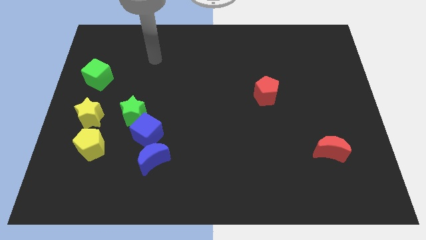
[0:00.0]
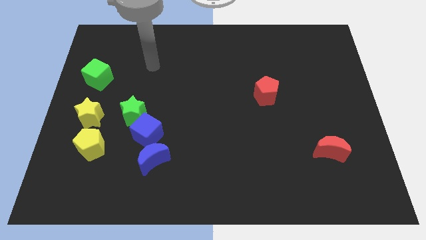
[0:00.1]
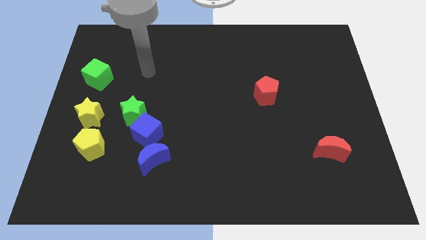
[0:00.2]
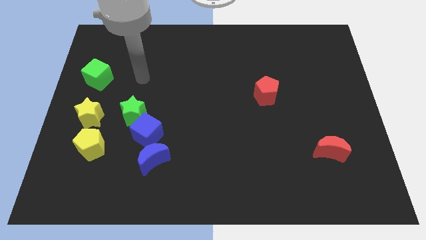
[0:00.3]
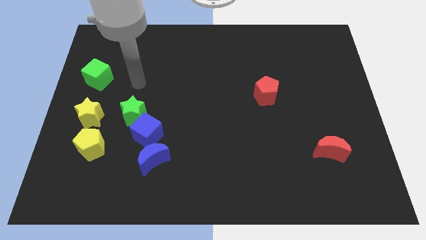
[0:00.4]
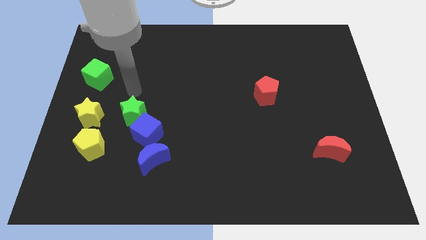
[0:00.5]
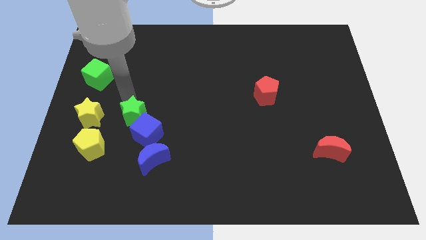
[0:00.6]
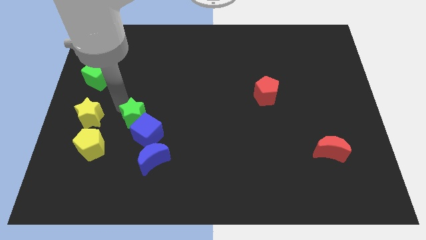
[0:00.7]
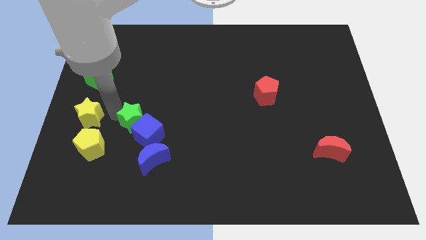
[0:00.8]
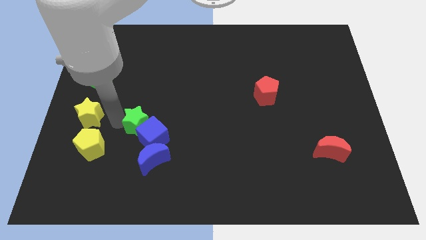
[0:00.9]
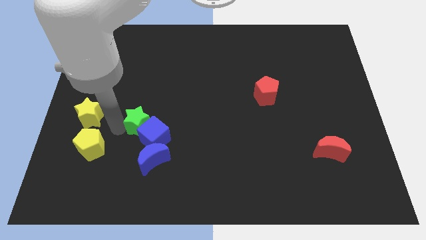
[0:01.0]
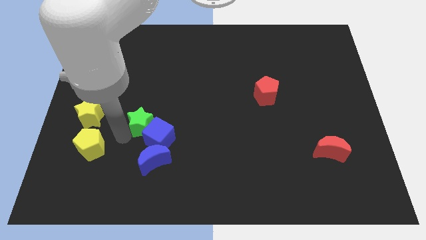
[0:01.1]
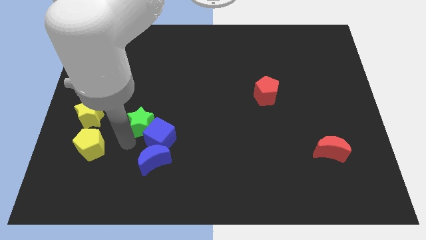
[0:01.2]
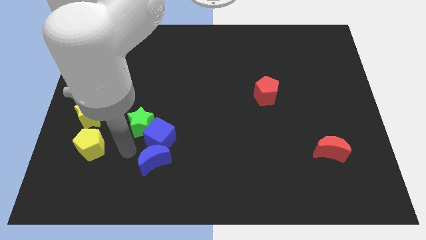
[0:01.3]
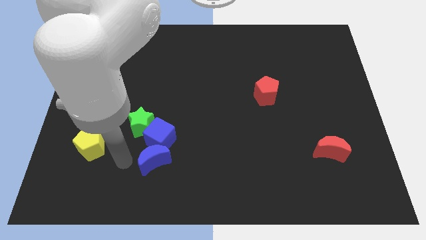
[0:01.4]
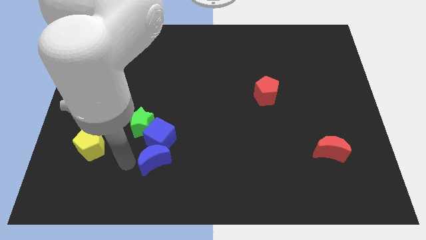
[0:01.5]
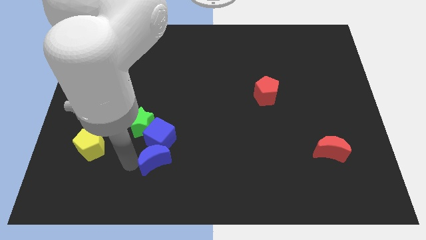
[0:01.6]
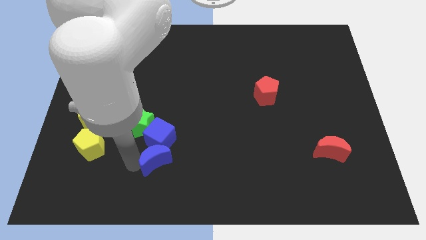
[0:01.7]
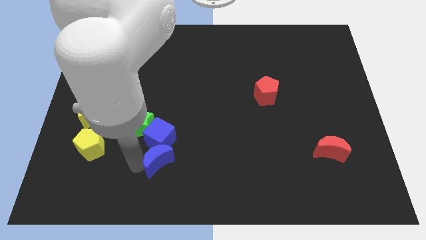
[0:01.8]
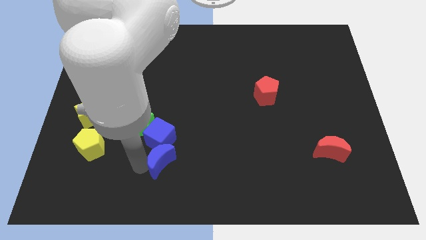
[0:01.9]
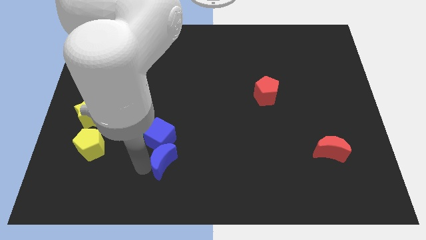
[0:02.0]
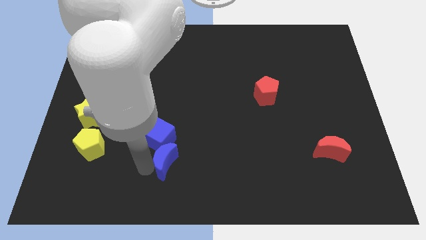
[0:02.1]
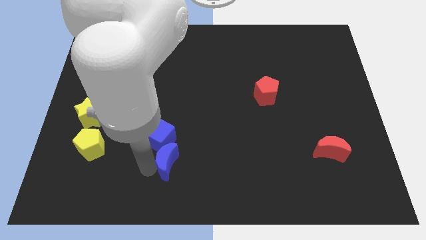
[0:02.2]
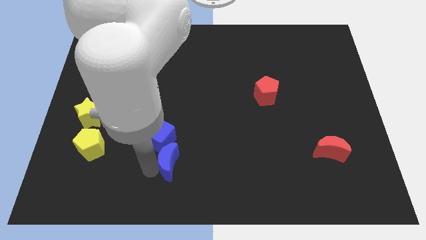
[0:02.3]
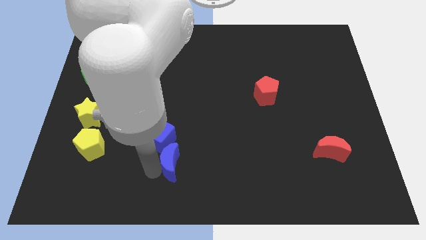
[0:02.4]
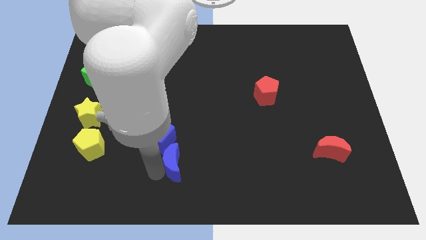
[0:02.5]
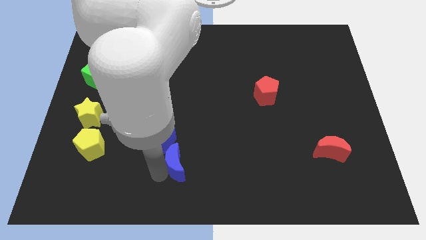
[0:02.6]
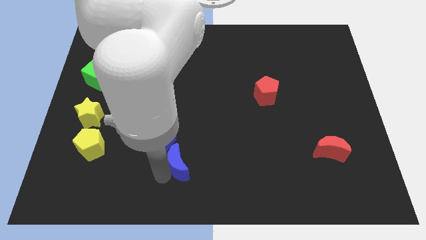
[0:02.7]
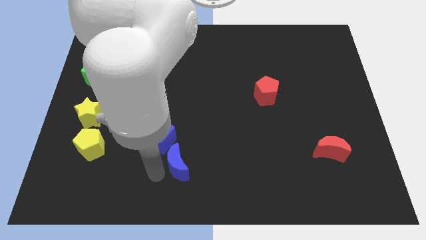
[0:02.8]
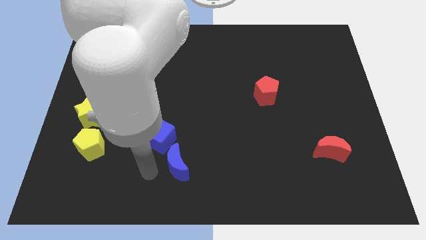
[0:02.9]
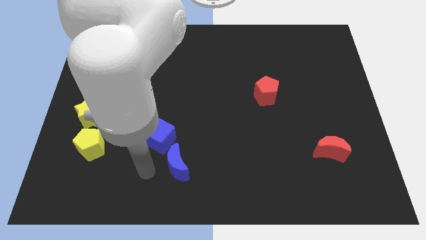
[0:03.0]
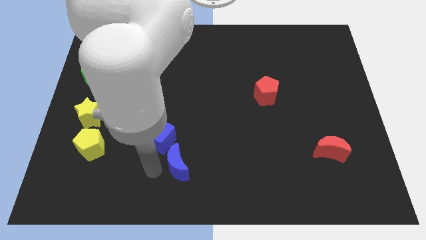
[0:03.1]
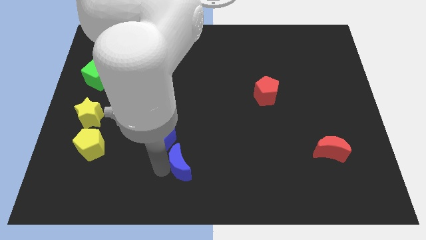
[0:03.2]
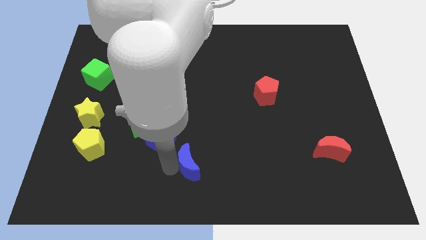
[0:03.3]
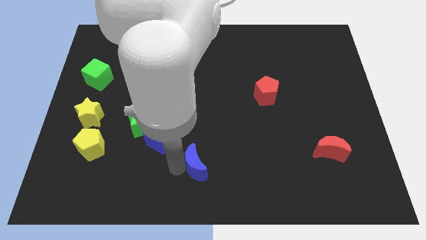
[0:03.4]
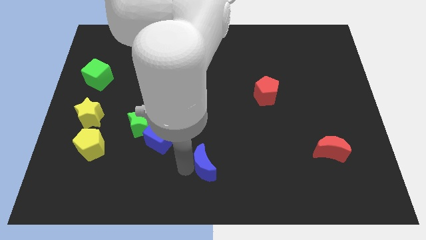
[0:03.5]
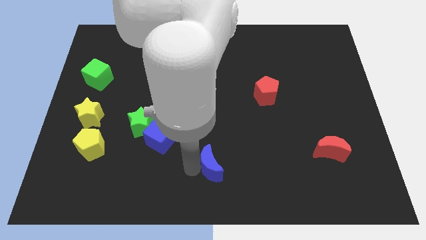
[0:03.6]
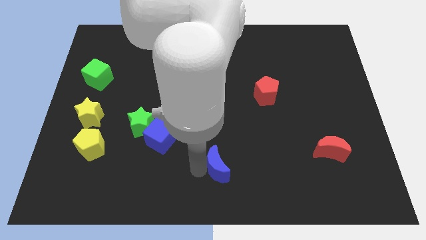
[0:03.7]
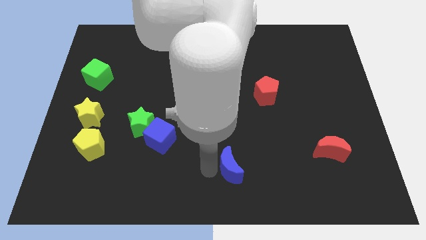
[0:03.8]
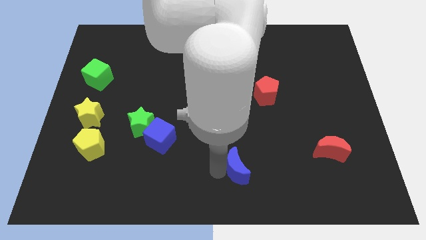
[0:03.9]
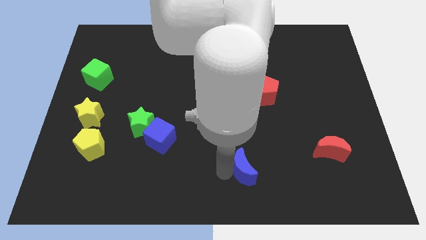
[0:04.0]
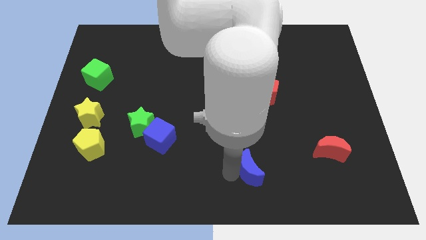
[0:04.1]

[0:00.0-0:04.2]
push the blue moon right

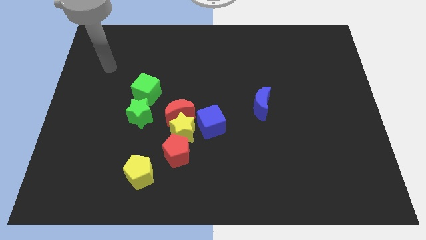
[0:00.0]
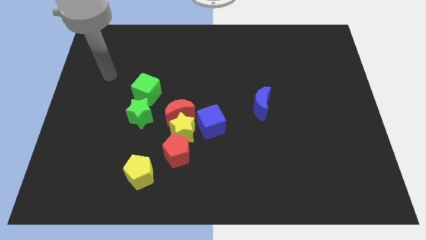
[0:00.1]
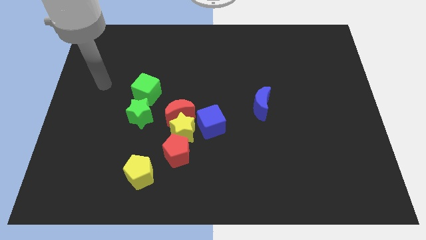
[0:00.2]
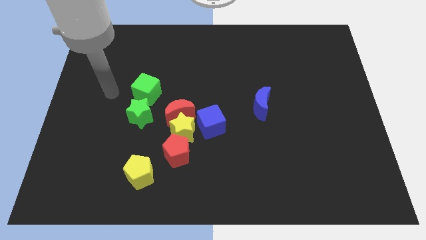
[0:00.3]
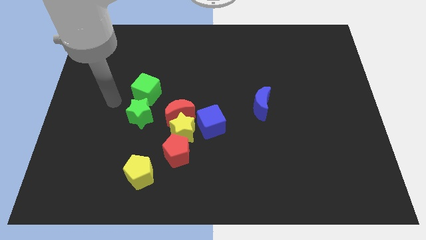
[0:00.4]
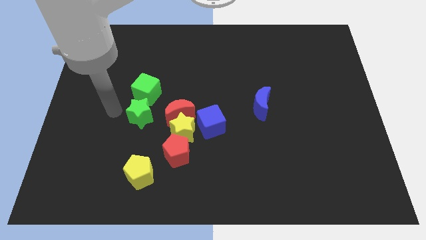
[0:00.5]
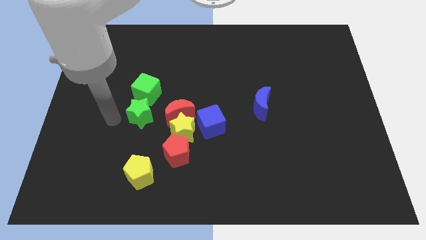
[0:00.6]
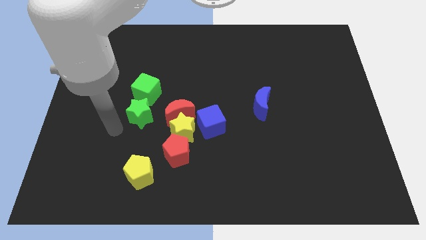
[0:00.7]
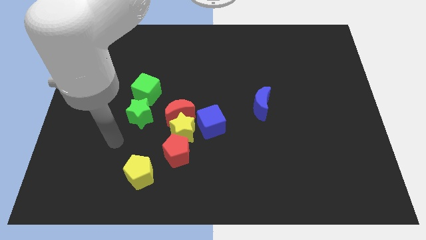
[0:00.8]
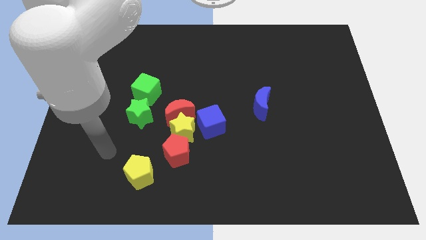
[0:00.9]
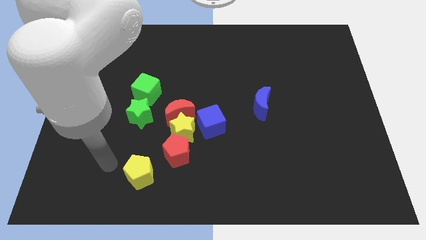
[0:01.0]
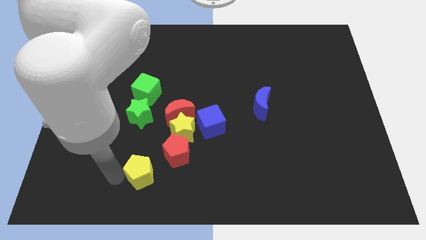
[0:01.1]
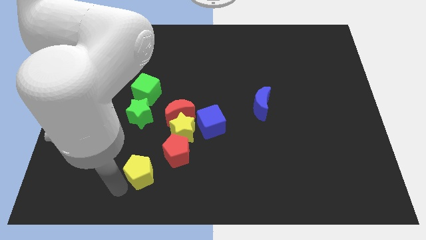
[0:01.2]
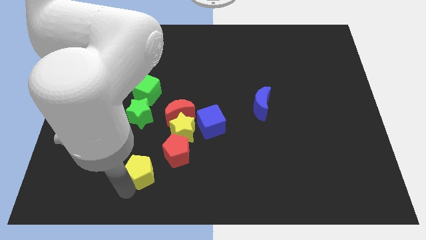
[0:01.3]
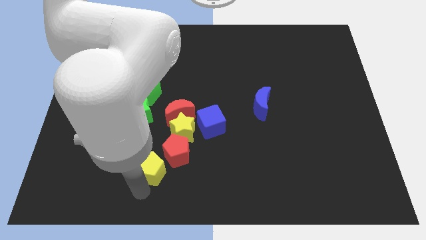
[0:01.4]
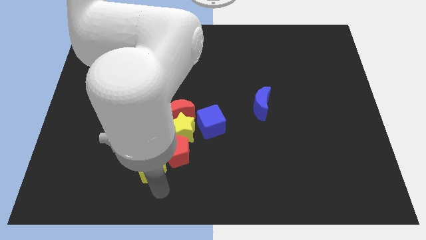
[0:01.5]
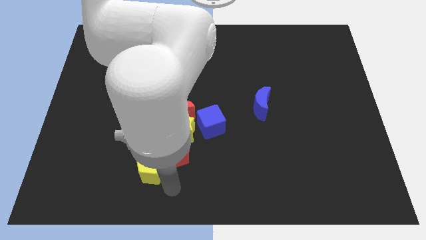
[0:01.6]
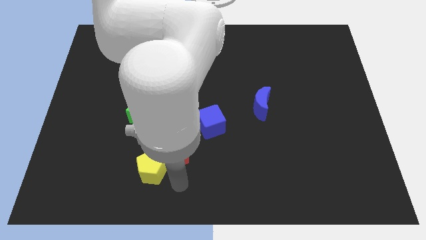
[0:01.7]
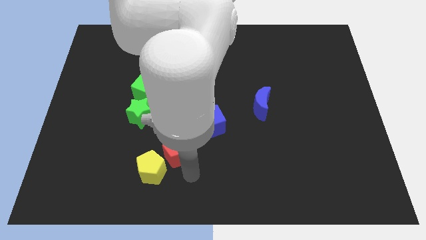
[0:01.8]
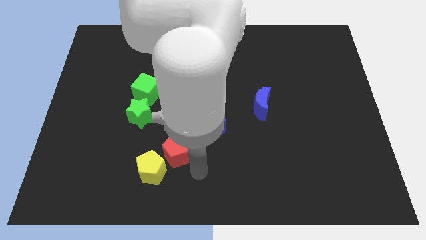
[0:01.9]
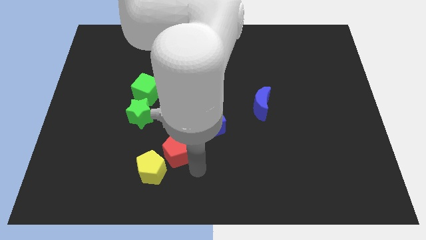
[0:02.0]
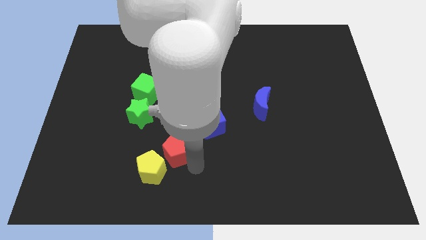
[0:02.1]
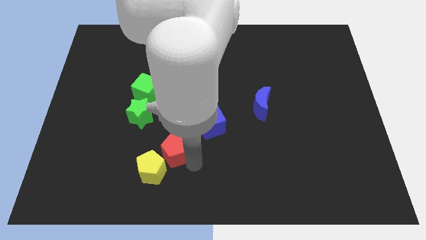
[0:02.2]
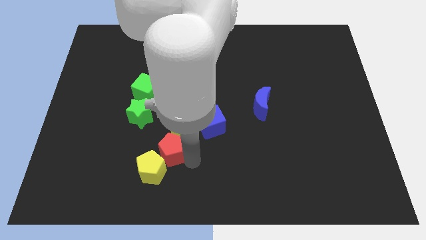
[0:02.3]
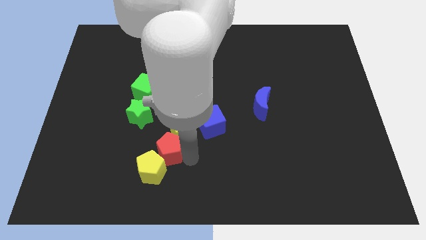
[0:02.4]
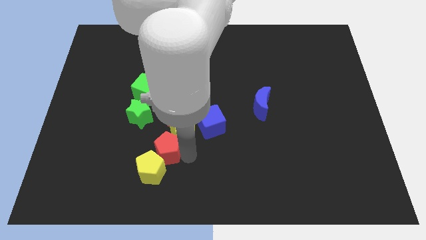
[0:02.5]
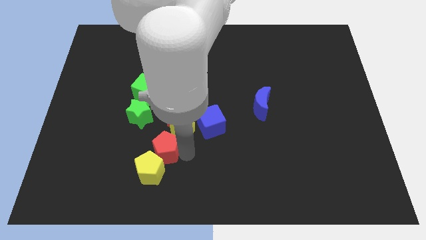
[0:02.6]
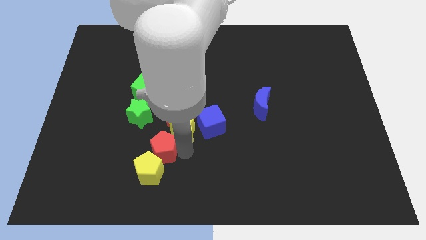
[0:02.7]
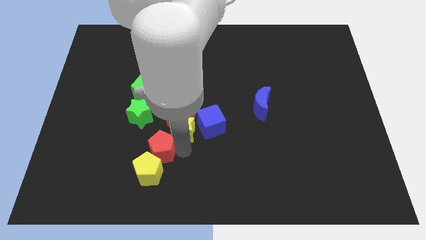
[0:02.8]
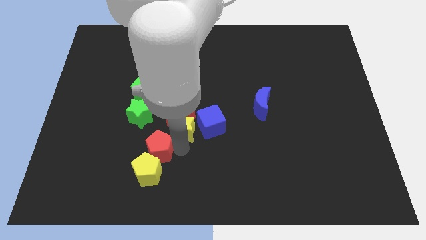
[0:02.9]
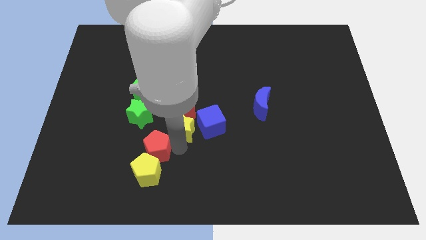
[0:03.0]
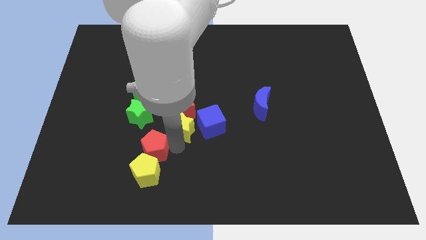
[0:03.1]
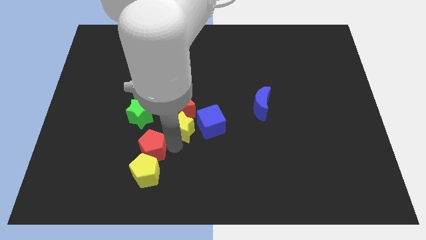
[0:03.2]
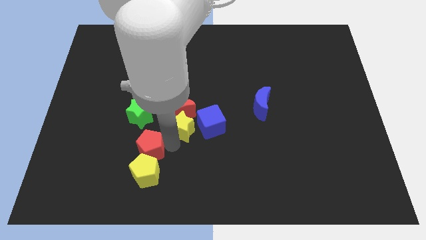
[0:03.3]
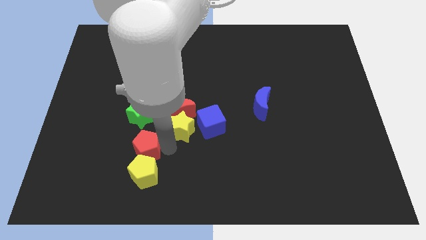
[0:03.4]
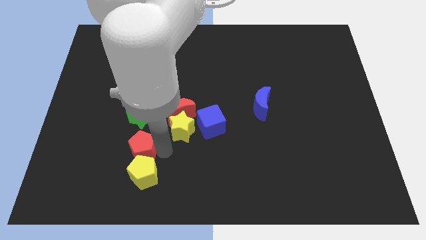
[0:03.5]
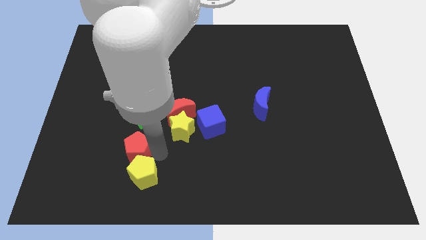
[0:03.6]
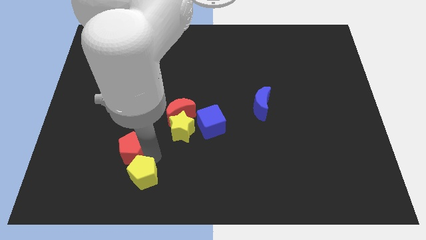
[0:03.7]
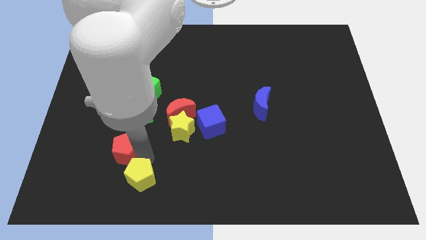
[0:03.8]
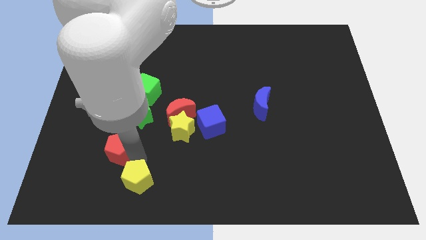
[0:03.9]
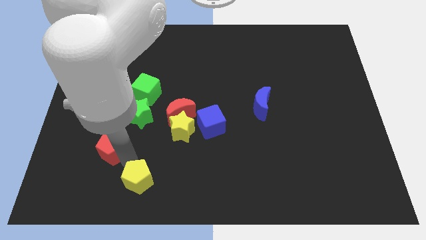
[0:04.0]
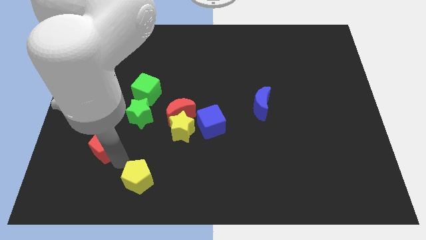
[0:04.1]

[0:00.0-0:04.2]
move the red pentagon diagonally up and left slightly
